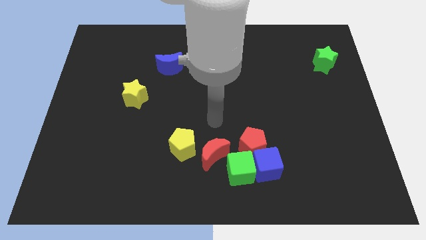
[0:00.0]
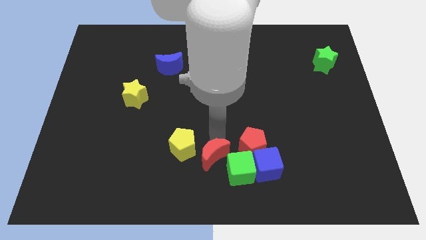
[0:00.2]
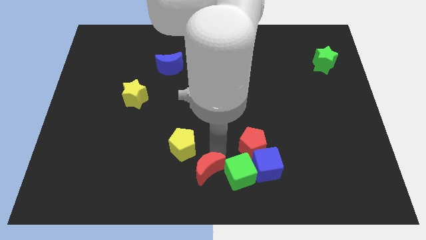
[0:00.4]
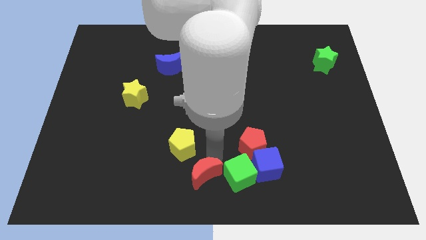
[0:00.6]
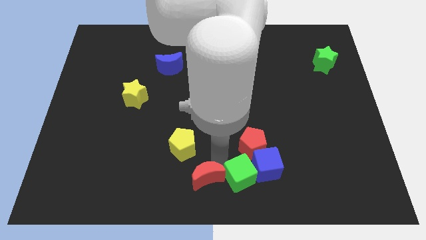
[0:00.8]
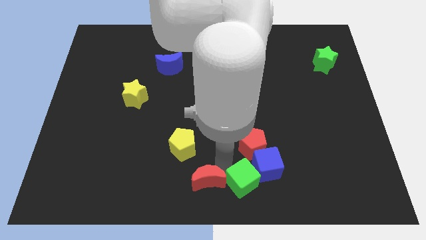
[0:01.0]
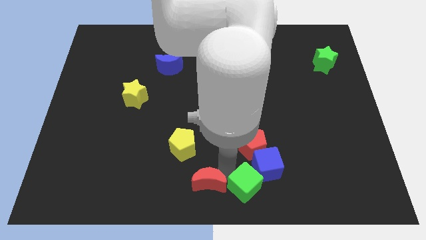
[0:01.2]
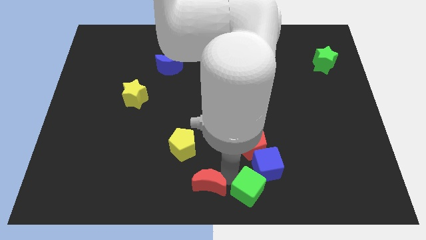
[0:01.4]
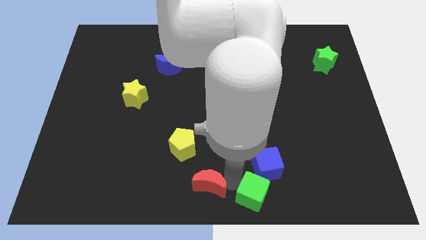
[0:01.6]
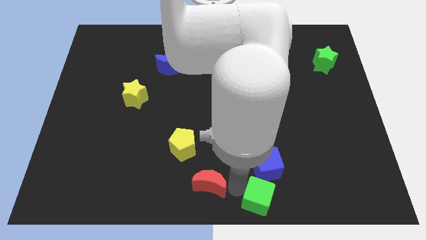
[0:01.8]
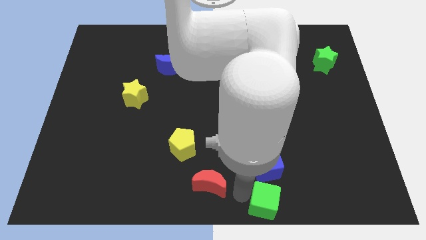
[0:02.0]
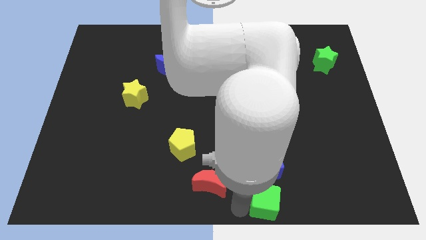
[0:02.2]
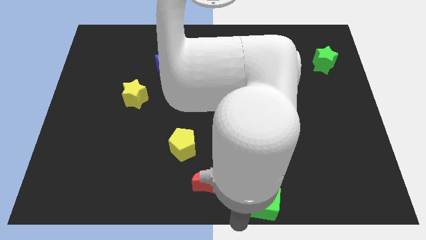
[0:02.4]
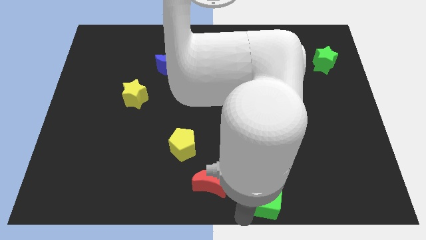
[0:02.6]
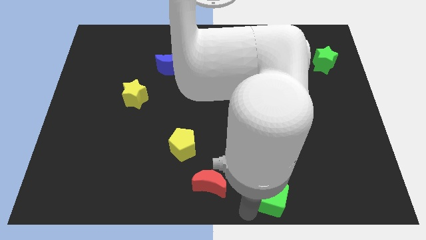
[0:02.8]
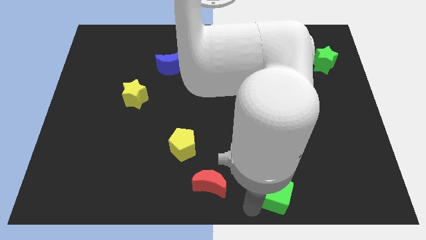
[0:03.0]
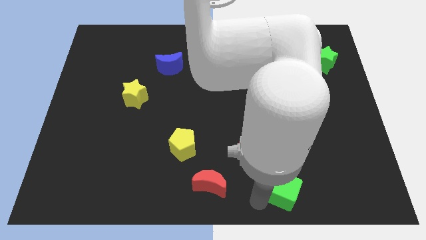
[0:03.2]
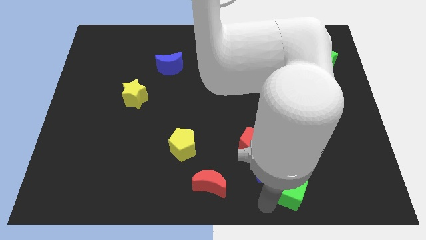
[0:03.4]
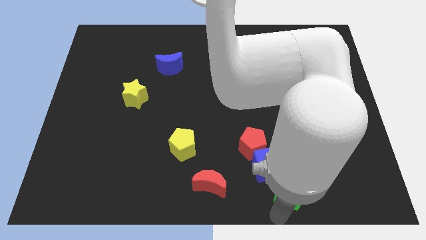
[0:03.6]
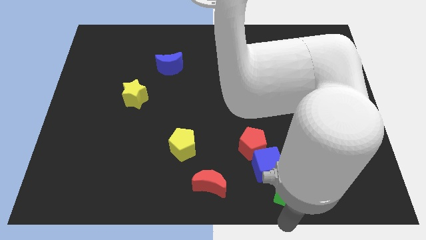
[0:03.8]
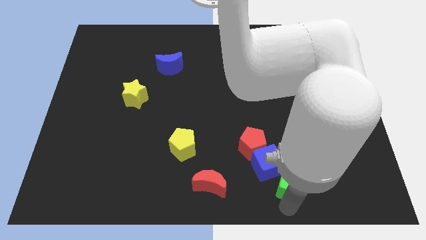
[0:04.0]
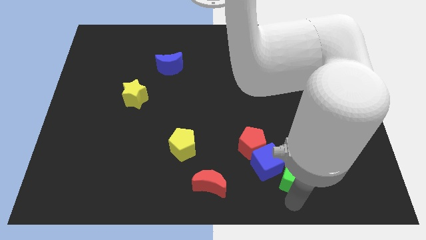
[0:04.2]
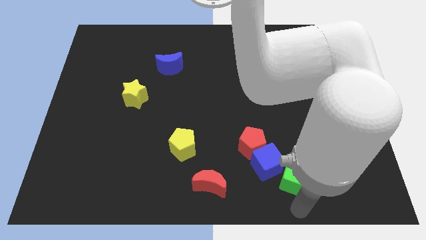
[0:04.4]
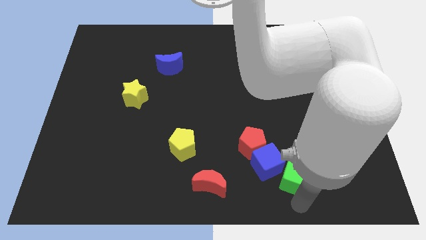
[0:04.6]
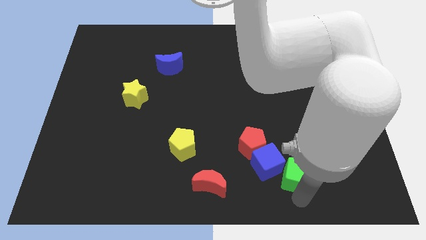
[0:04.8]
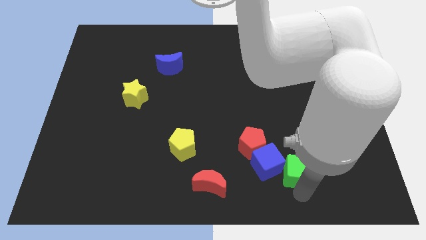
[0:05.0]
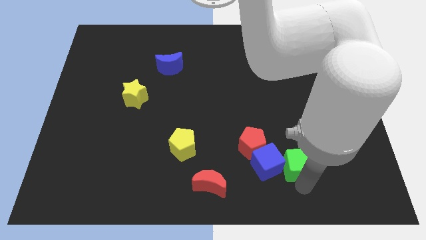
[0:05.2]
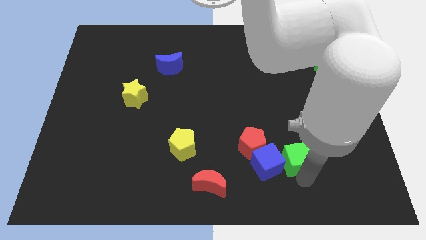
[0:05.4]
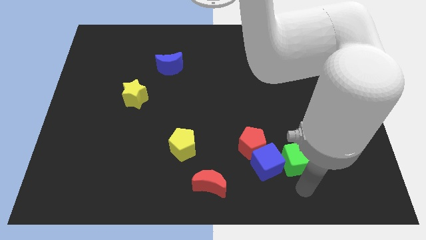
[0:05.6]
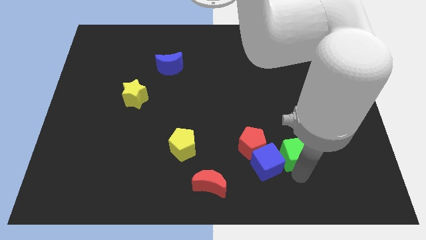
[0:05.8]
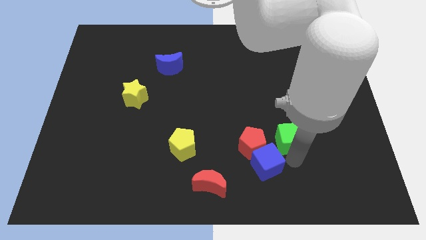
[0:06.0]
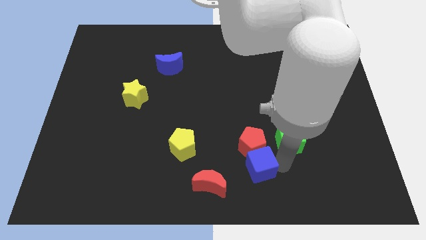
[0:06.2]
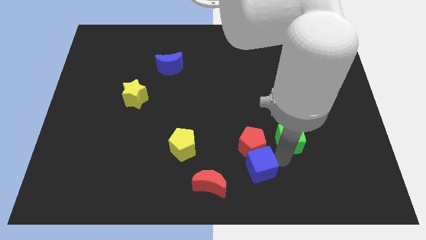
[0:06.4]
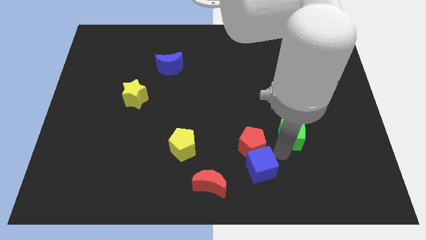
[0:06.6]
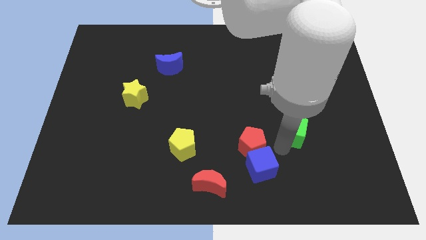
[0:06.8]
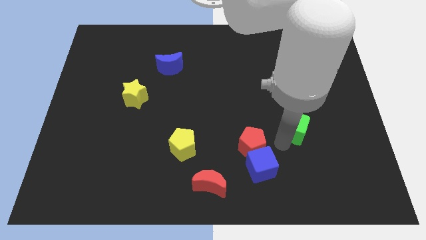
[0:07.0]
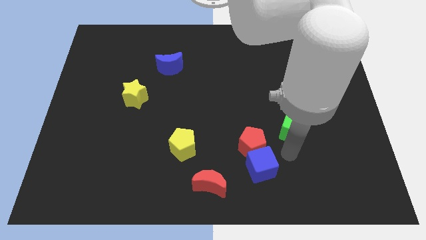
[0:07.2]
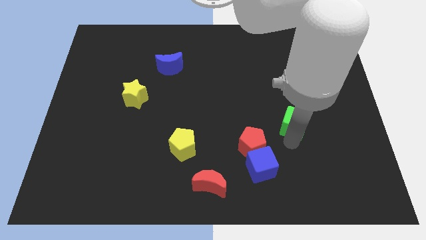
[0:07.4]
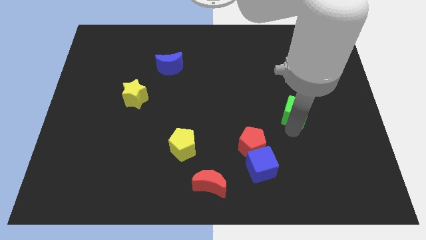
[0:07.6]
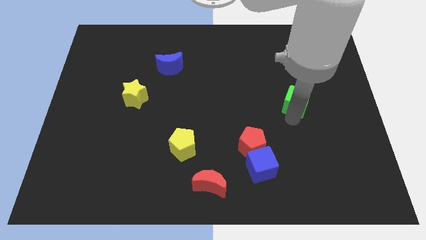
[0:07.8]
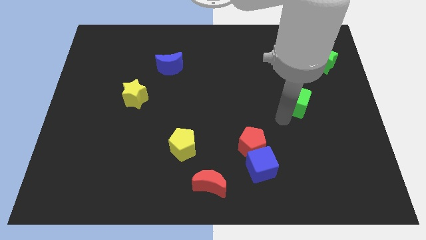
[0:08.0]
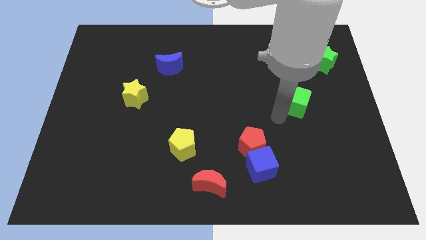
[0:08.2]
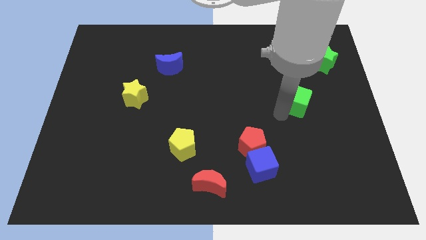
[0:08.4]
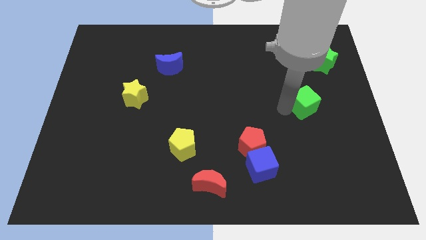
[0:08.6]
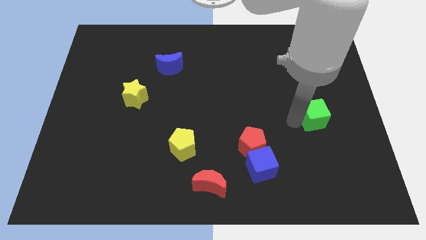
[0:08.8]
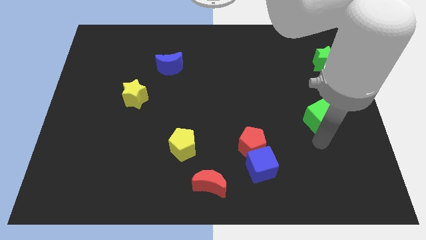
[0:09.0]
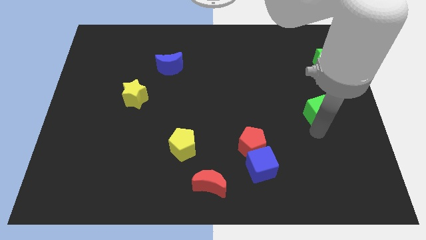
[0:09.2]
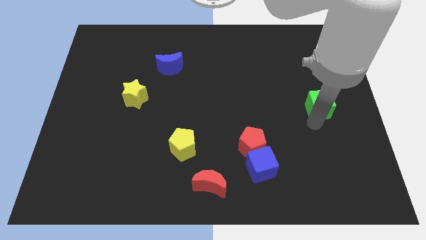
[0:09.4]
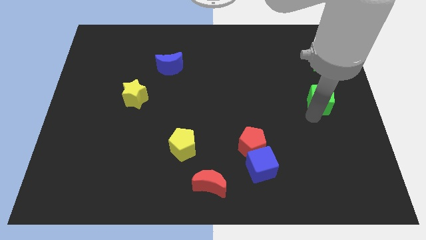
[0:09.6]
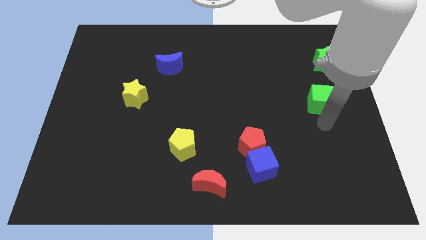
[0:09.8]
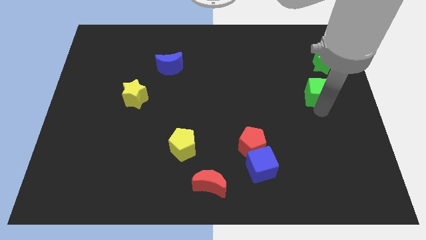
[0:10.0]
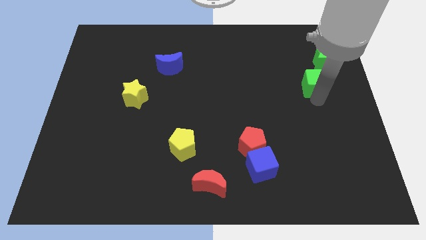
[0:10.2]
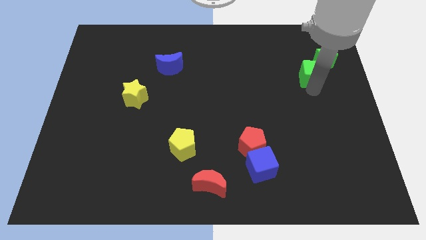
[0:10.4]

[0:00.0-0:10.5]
move the green cube close to the green star
